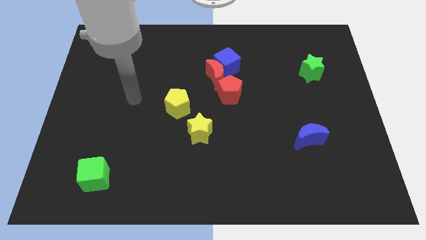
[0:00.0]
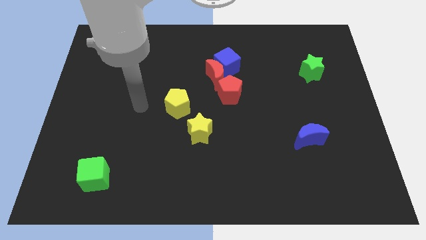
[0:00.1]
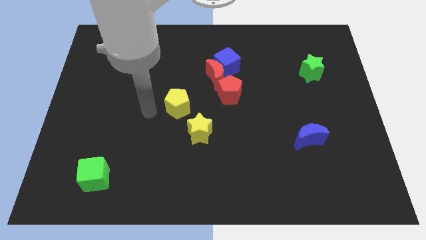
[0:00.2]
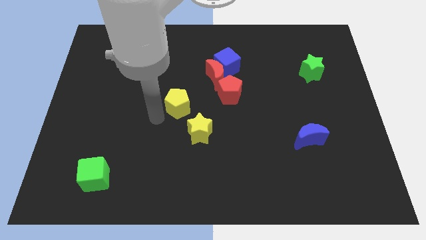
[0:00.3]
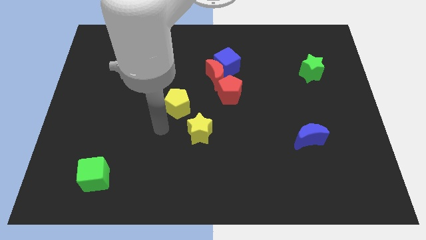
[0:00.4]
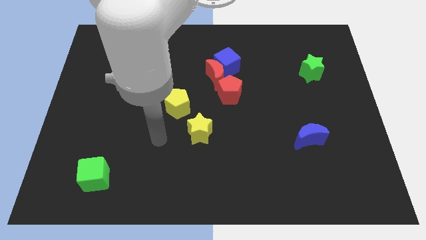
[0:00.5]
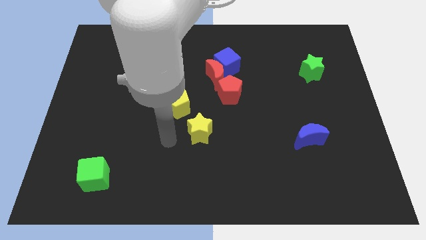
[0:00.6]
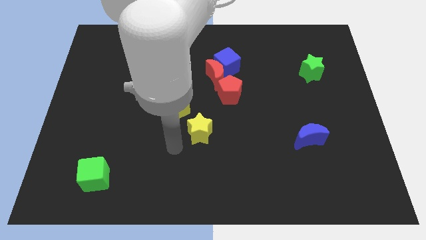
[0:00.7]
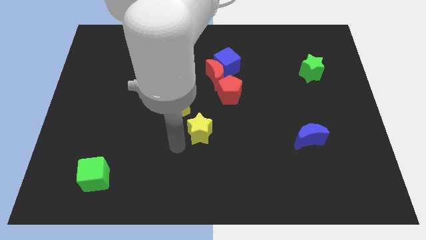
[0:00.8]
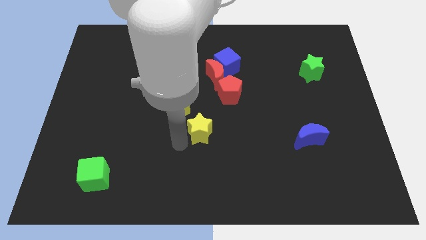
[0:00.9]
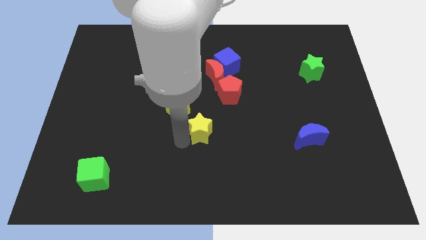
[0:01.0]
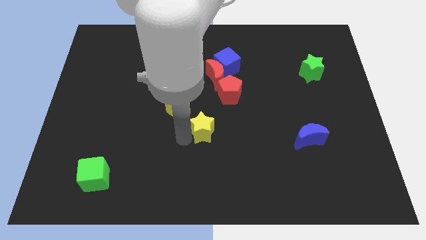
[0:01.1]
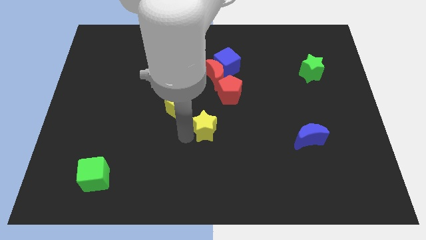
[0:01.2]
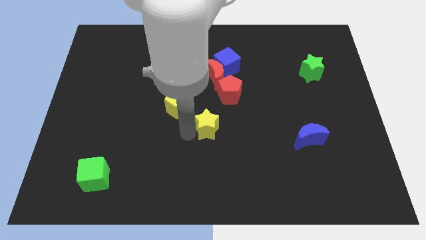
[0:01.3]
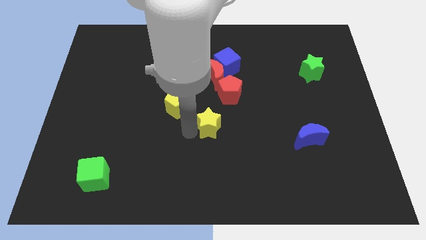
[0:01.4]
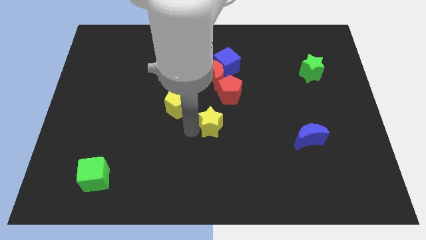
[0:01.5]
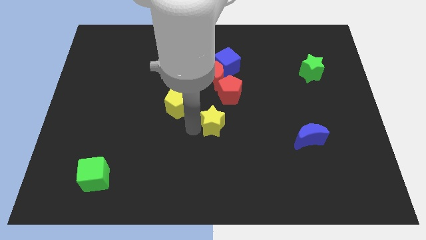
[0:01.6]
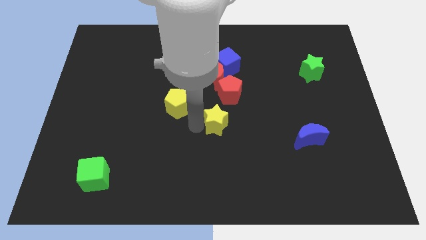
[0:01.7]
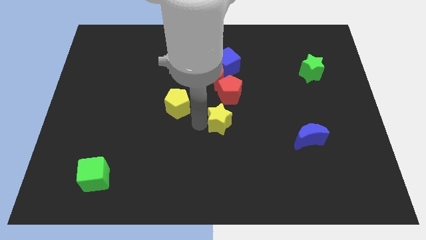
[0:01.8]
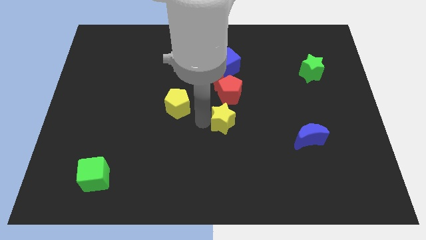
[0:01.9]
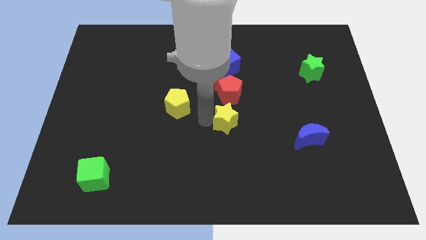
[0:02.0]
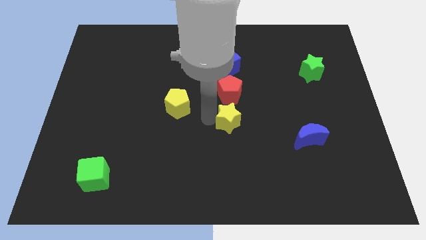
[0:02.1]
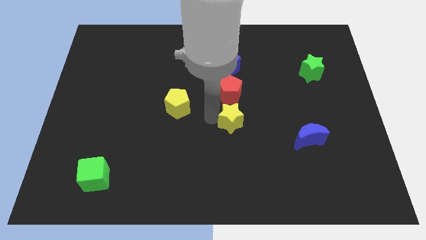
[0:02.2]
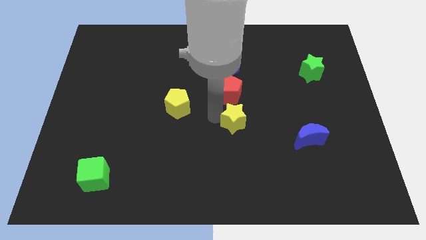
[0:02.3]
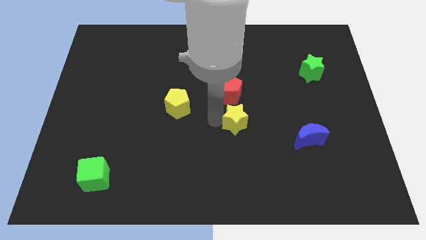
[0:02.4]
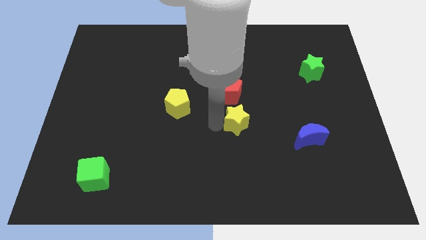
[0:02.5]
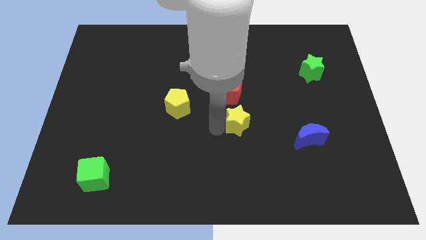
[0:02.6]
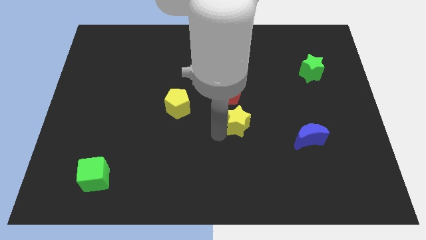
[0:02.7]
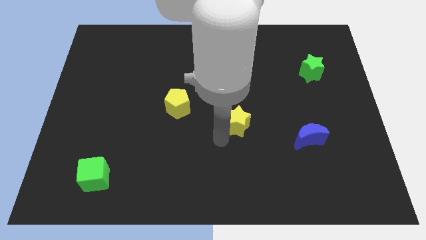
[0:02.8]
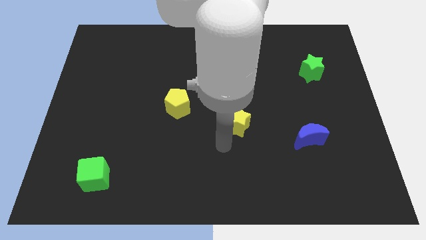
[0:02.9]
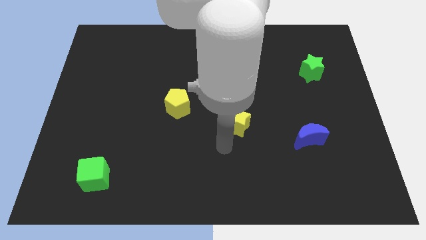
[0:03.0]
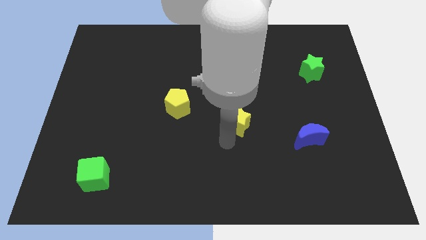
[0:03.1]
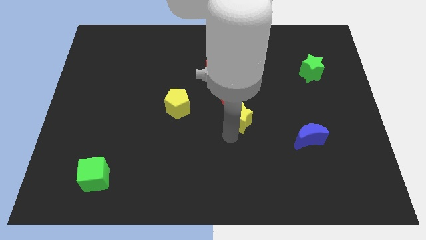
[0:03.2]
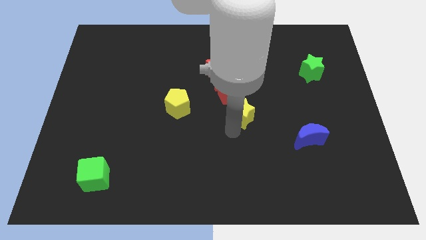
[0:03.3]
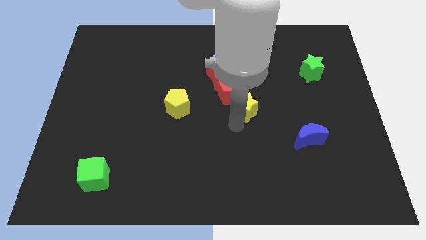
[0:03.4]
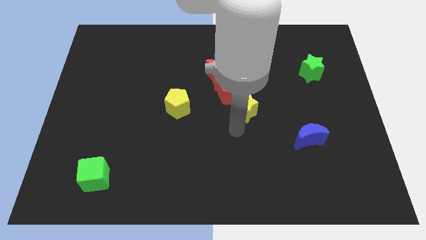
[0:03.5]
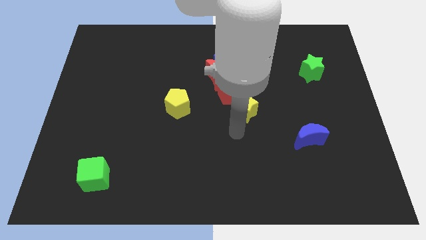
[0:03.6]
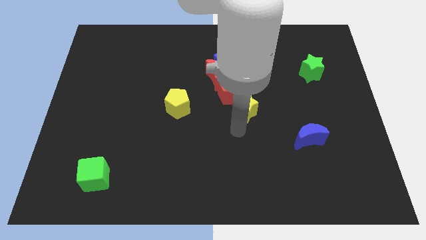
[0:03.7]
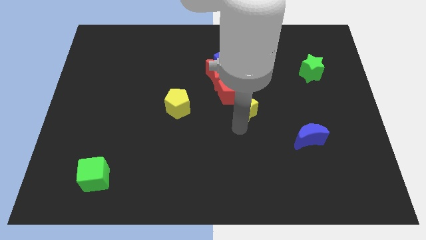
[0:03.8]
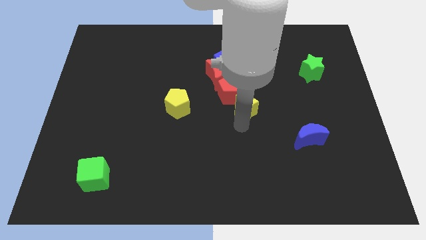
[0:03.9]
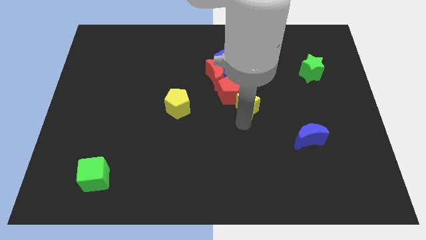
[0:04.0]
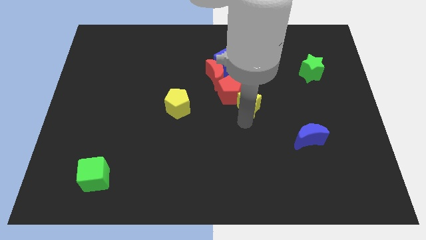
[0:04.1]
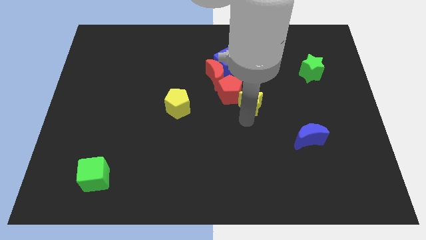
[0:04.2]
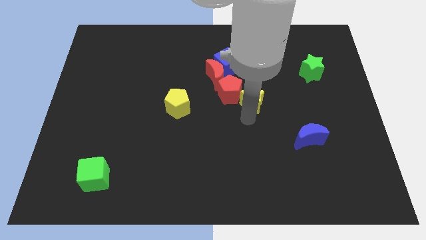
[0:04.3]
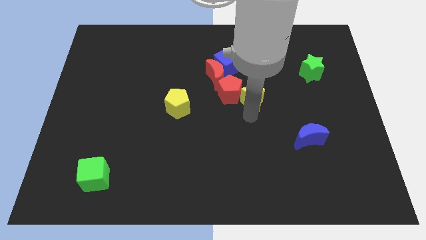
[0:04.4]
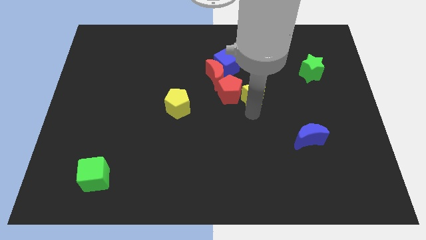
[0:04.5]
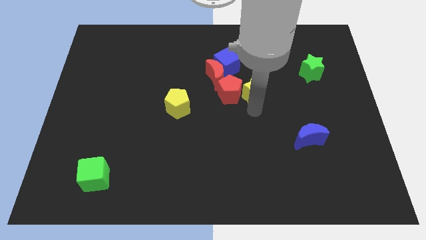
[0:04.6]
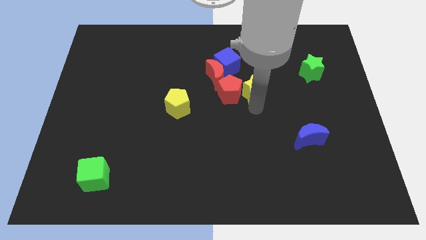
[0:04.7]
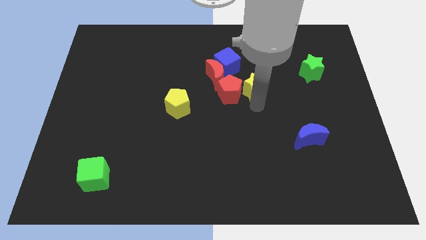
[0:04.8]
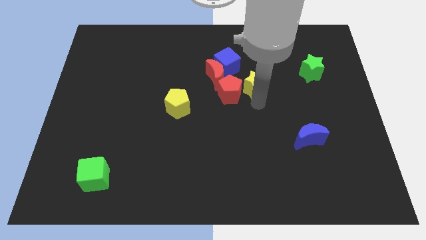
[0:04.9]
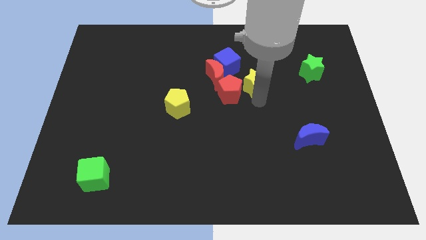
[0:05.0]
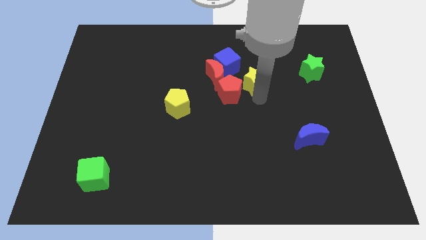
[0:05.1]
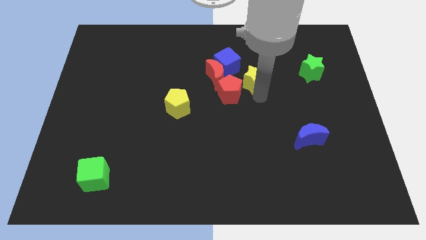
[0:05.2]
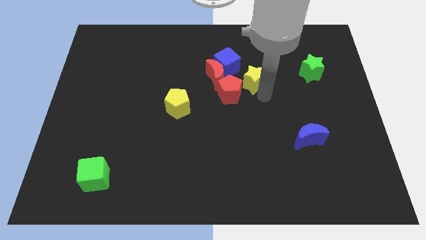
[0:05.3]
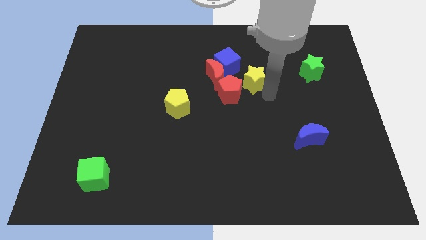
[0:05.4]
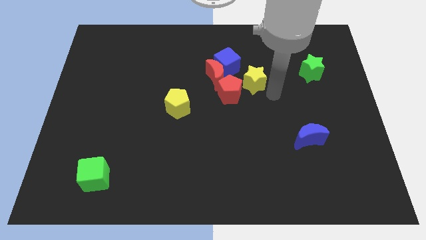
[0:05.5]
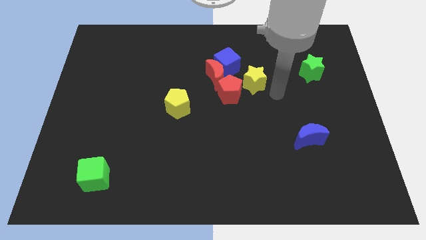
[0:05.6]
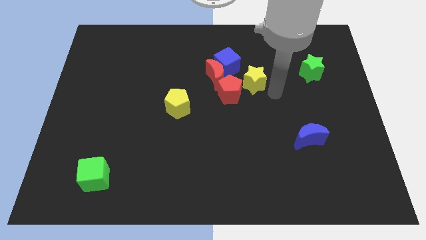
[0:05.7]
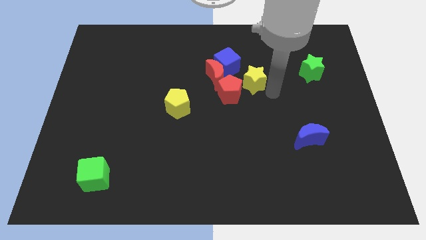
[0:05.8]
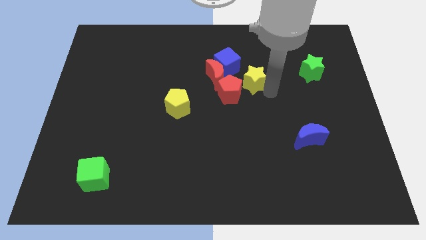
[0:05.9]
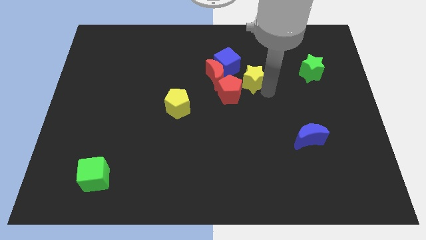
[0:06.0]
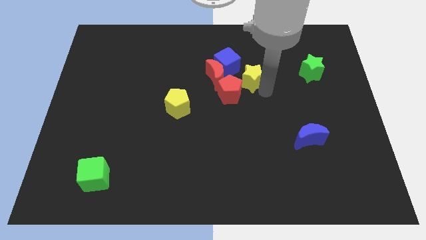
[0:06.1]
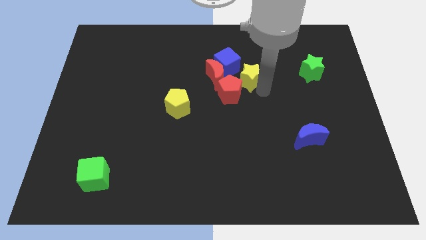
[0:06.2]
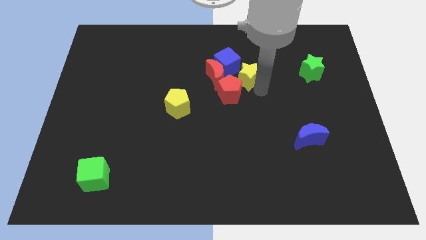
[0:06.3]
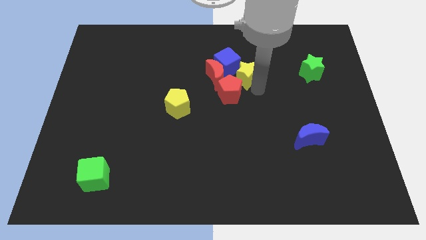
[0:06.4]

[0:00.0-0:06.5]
slide the yellow star close to the blue cube

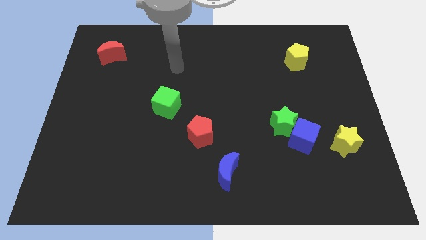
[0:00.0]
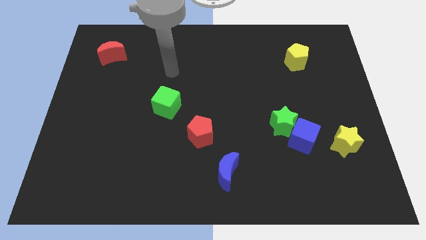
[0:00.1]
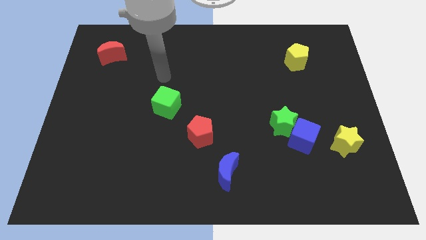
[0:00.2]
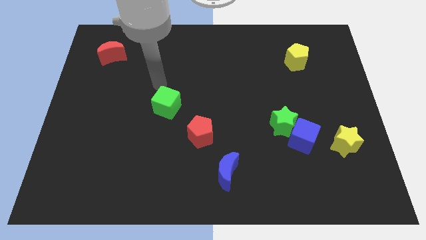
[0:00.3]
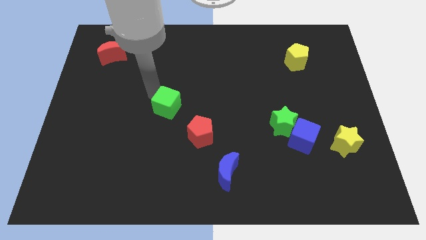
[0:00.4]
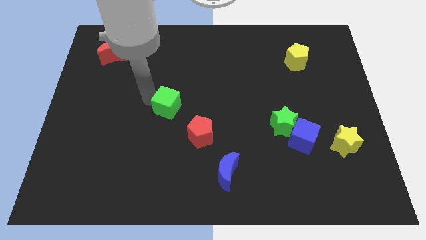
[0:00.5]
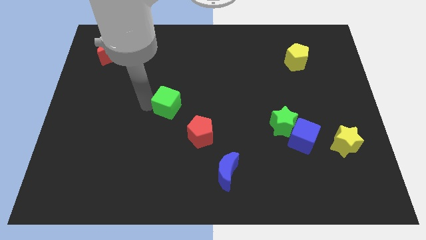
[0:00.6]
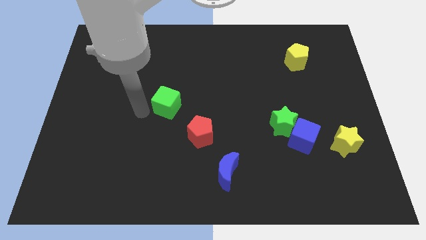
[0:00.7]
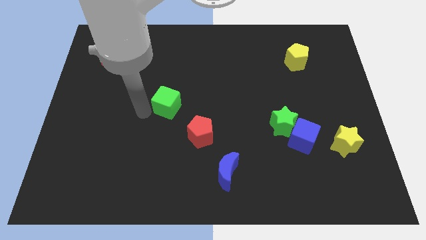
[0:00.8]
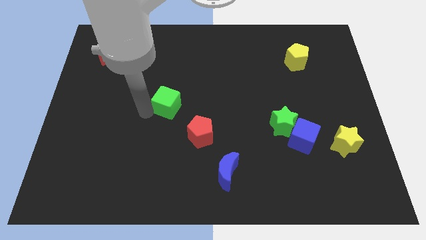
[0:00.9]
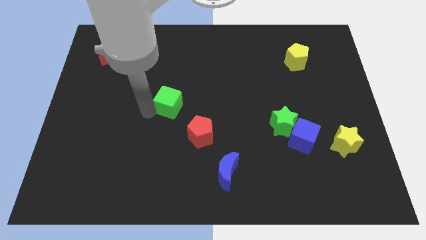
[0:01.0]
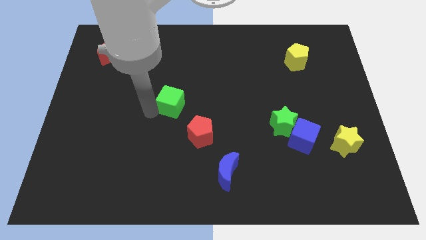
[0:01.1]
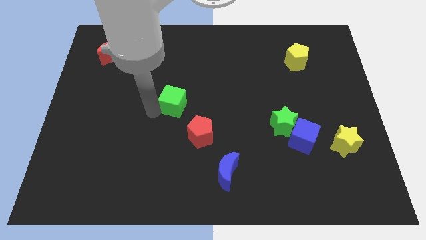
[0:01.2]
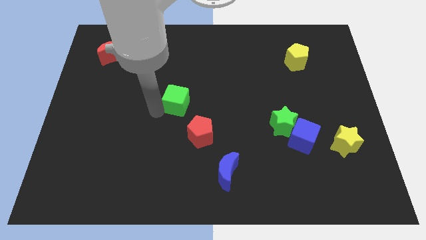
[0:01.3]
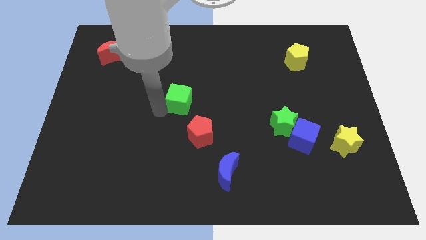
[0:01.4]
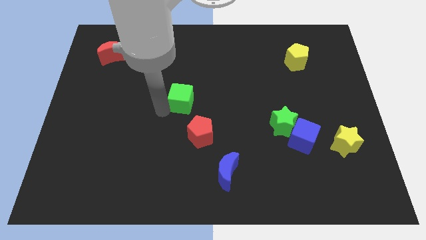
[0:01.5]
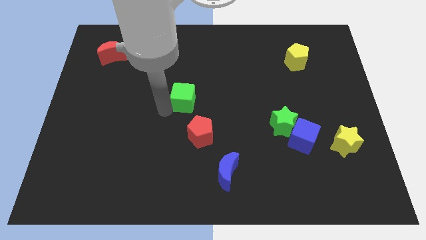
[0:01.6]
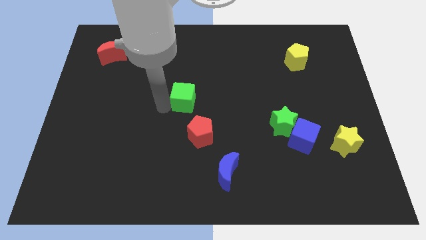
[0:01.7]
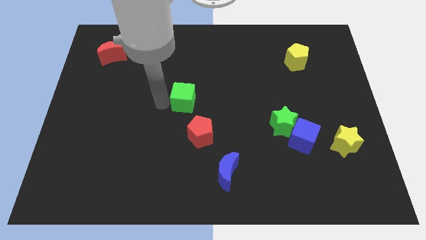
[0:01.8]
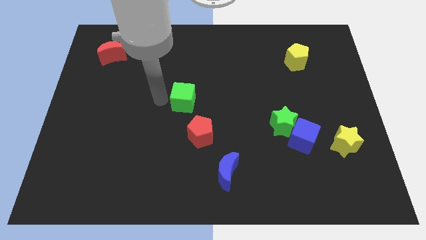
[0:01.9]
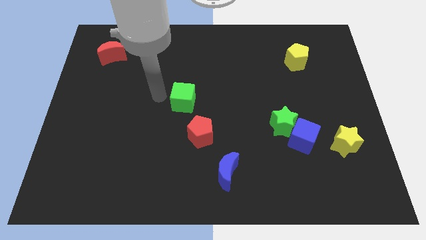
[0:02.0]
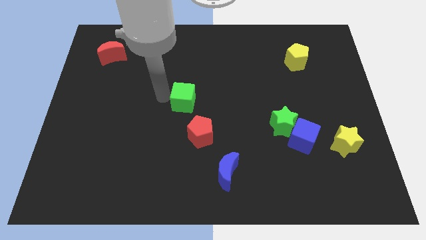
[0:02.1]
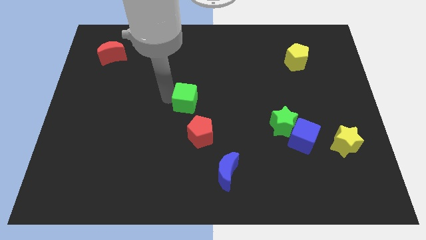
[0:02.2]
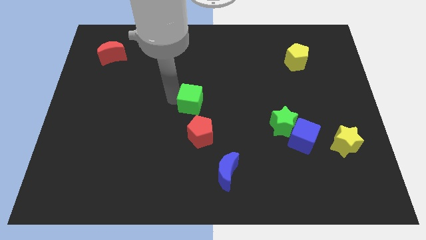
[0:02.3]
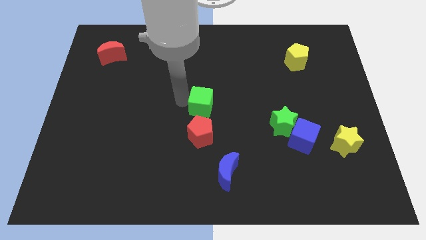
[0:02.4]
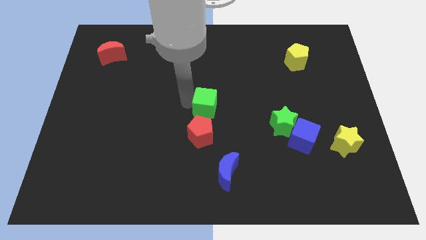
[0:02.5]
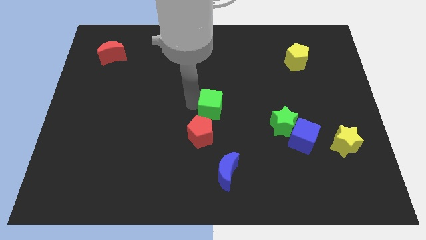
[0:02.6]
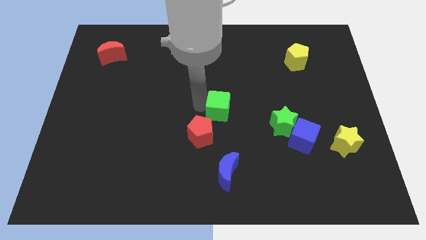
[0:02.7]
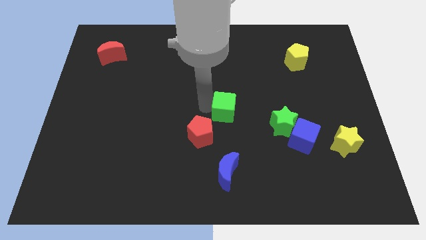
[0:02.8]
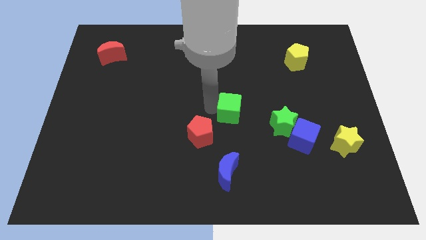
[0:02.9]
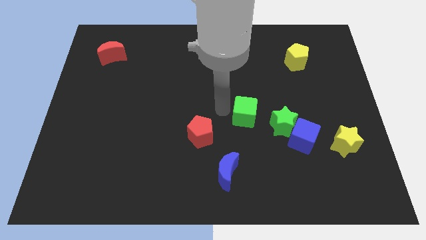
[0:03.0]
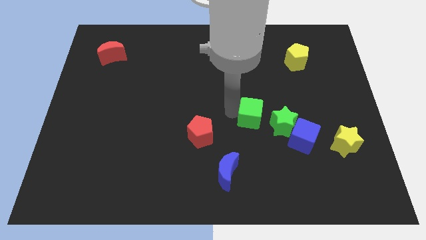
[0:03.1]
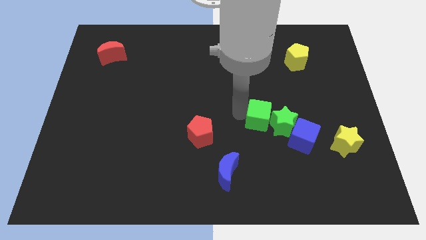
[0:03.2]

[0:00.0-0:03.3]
put the green cube close to the green star
